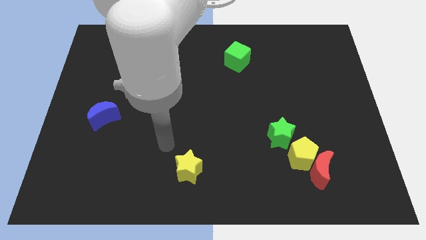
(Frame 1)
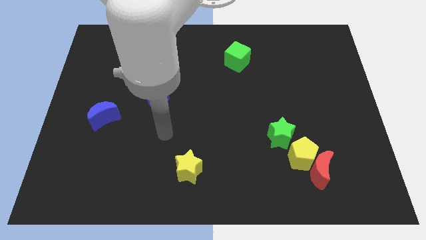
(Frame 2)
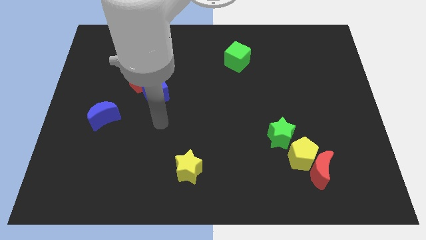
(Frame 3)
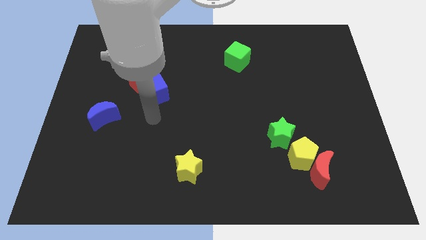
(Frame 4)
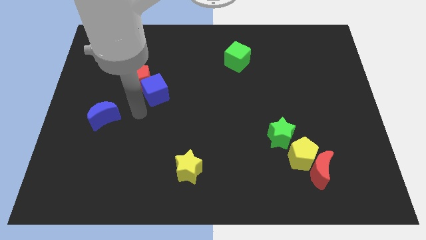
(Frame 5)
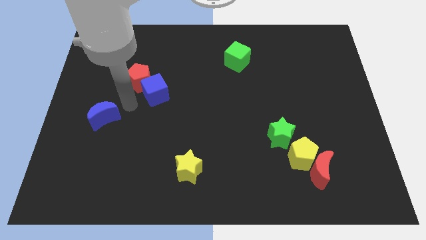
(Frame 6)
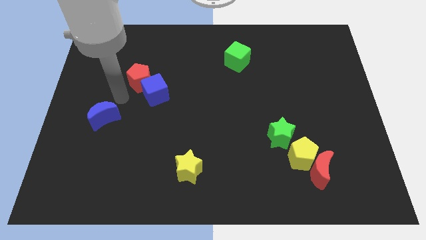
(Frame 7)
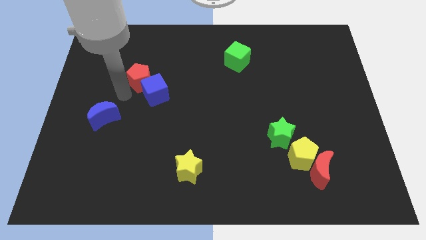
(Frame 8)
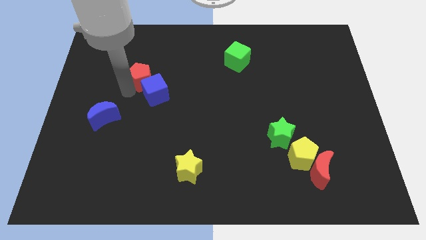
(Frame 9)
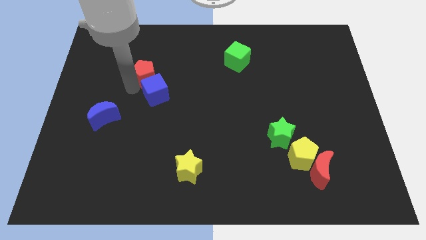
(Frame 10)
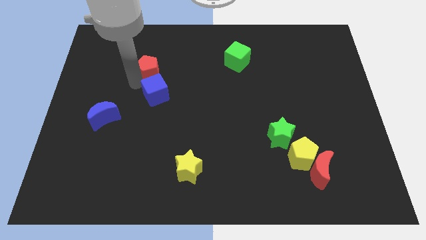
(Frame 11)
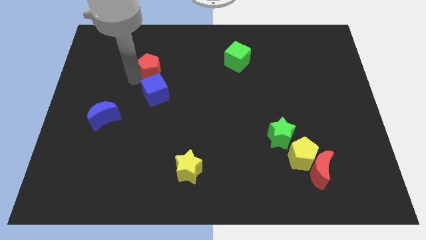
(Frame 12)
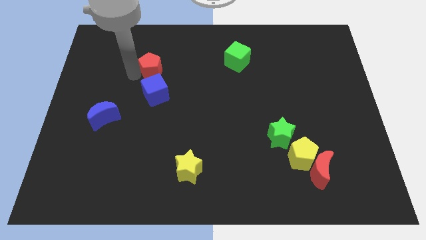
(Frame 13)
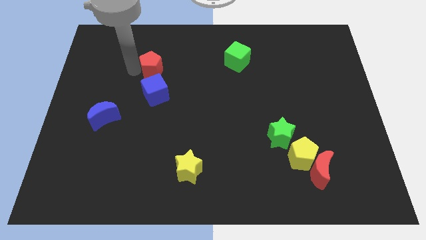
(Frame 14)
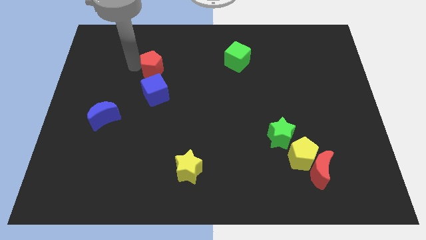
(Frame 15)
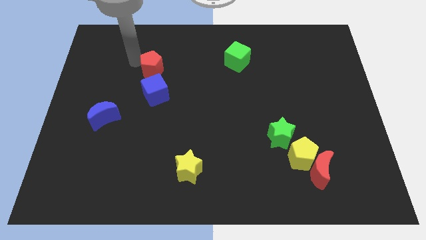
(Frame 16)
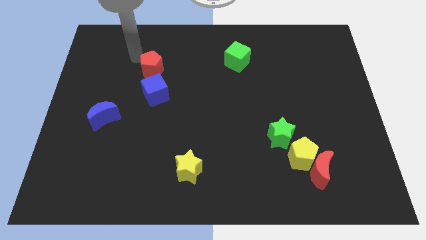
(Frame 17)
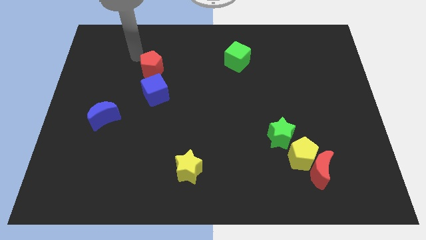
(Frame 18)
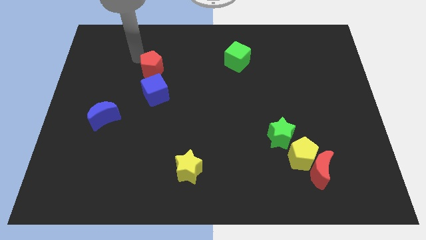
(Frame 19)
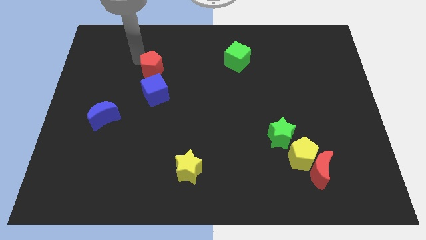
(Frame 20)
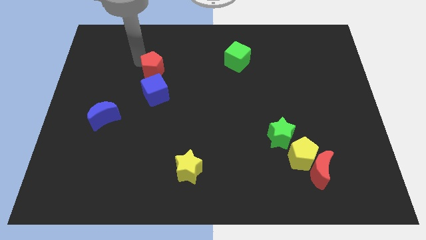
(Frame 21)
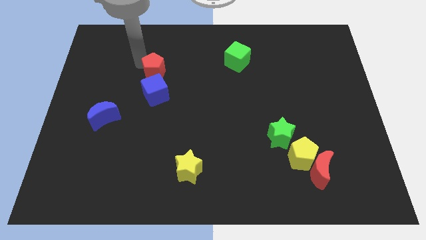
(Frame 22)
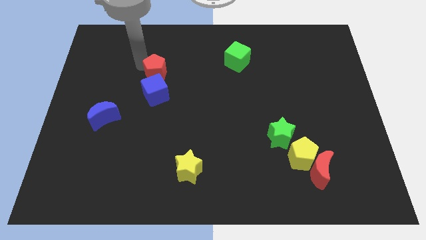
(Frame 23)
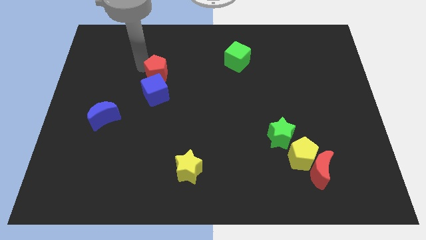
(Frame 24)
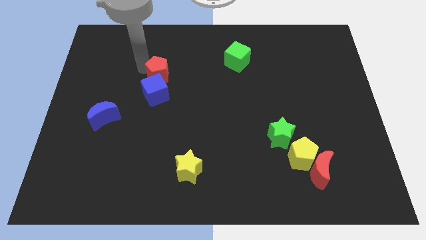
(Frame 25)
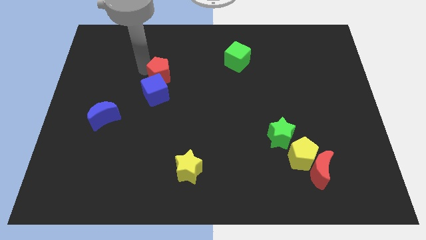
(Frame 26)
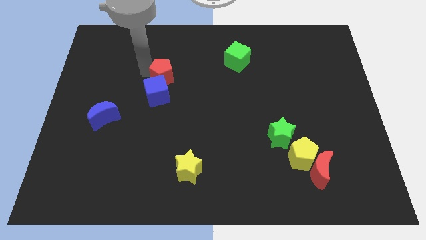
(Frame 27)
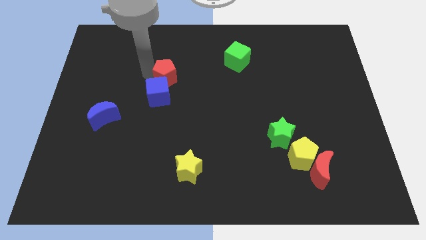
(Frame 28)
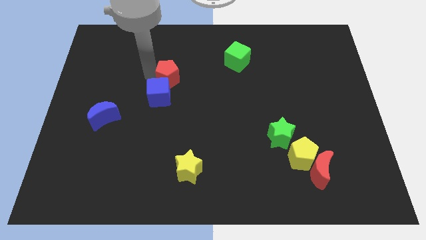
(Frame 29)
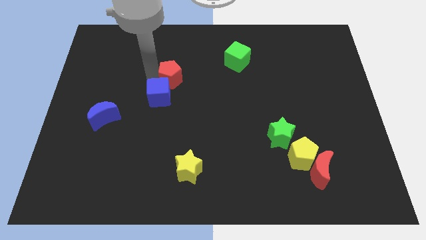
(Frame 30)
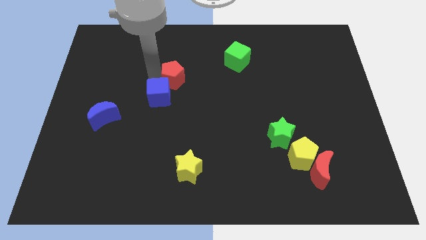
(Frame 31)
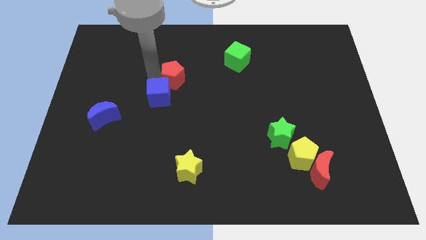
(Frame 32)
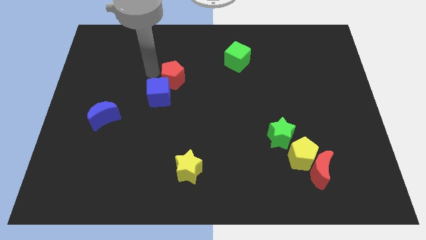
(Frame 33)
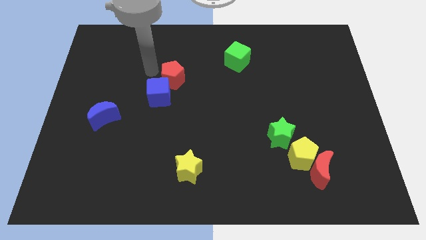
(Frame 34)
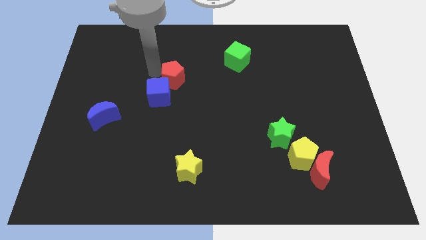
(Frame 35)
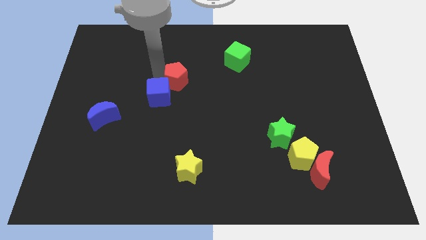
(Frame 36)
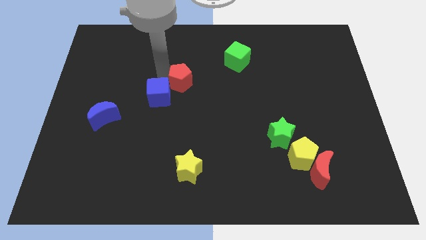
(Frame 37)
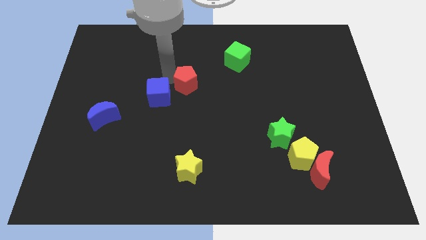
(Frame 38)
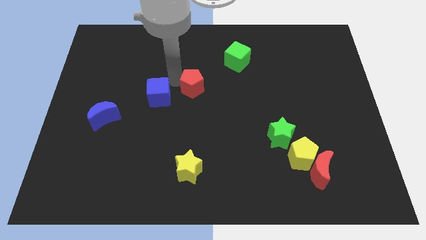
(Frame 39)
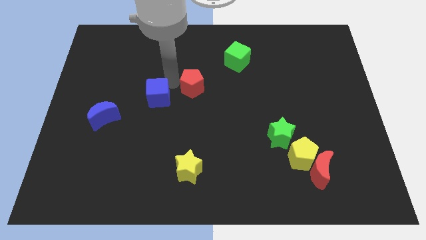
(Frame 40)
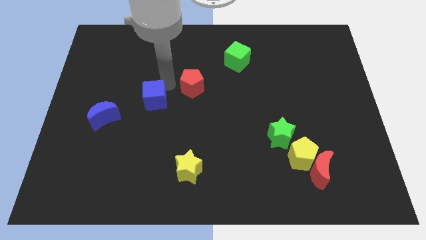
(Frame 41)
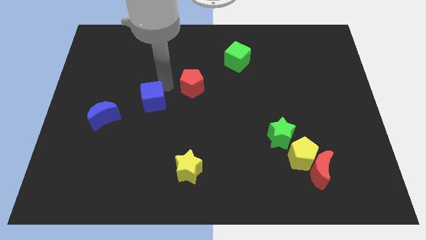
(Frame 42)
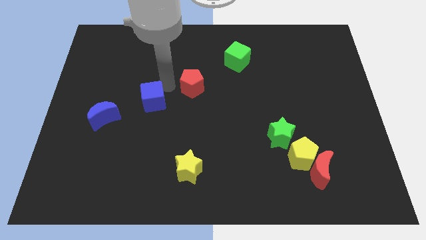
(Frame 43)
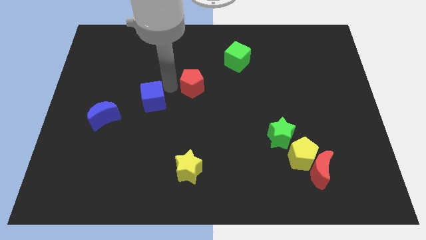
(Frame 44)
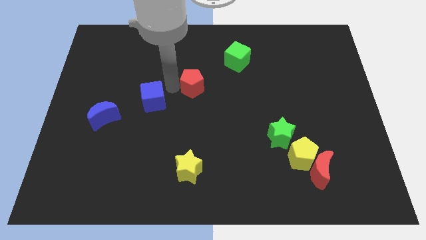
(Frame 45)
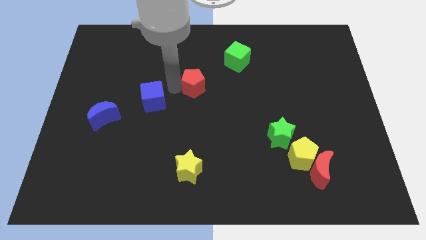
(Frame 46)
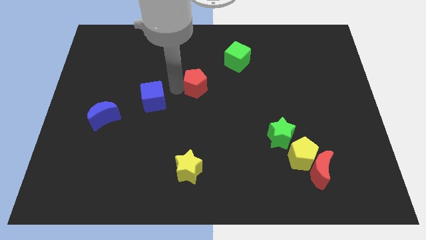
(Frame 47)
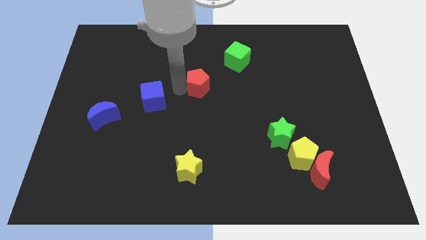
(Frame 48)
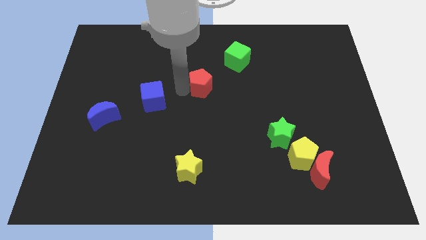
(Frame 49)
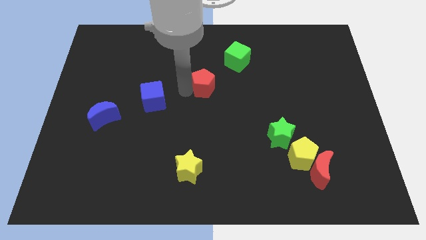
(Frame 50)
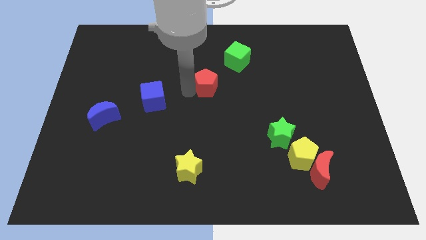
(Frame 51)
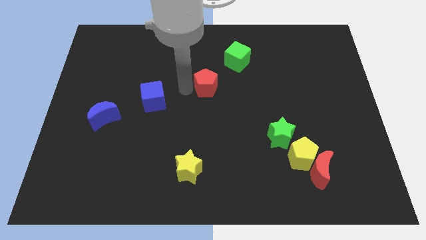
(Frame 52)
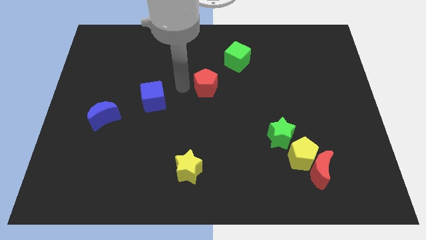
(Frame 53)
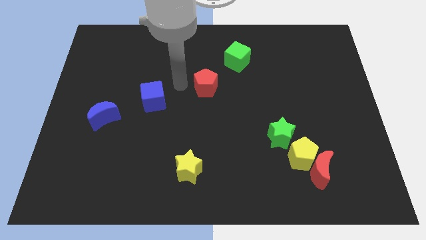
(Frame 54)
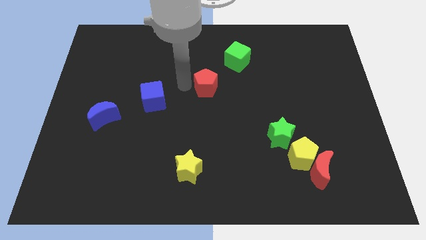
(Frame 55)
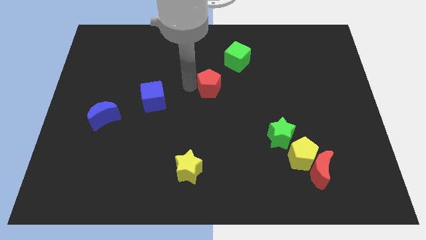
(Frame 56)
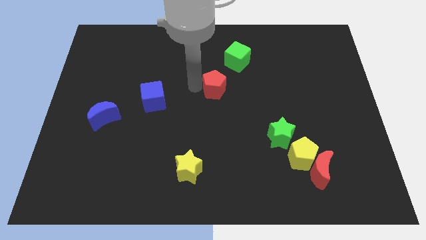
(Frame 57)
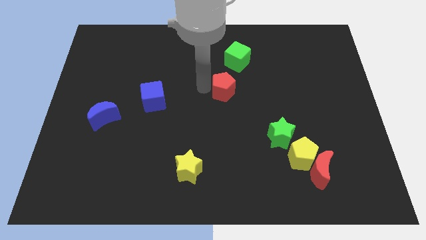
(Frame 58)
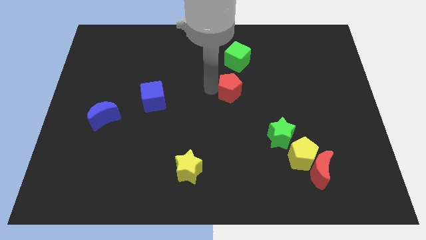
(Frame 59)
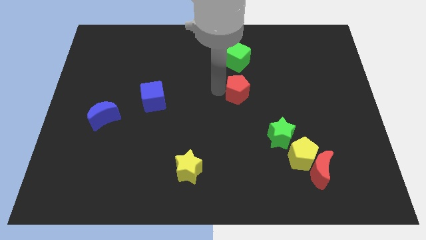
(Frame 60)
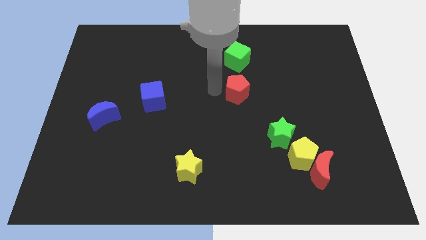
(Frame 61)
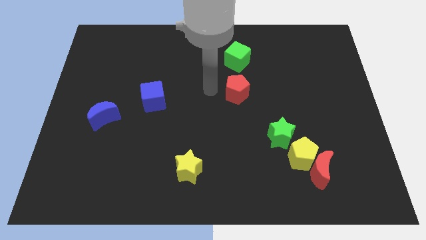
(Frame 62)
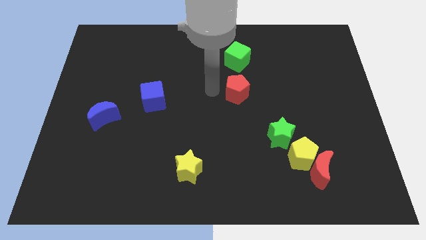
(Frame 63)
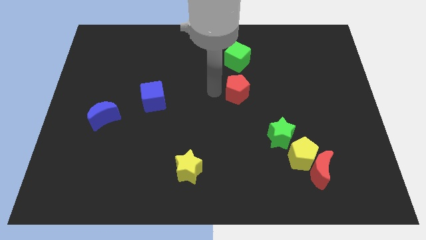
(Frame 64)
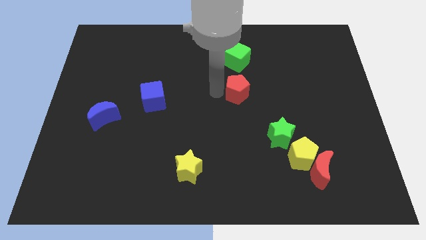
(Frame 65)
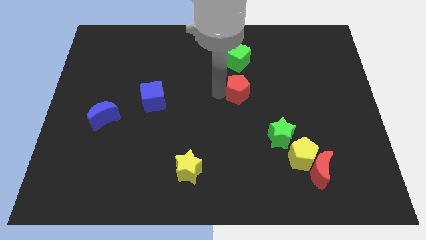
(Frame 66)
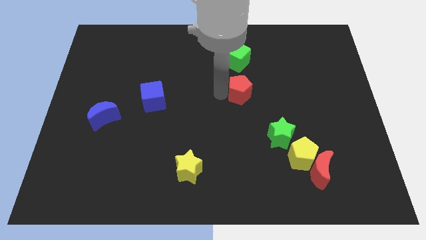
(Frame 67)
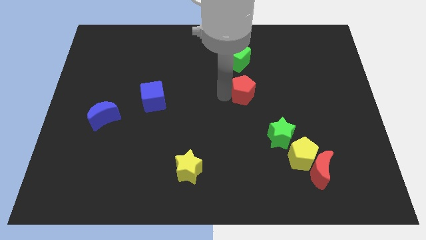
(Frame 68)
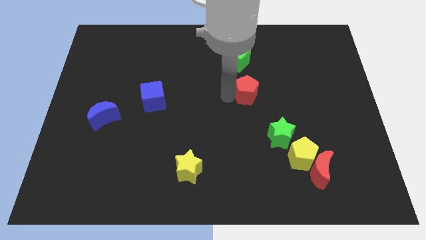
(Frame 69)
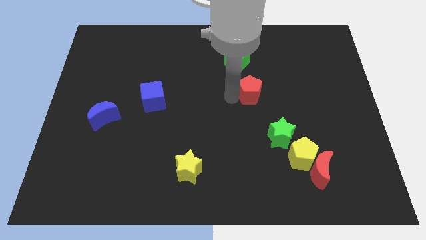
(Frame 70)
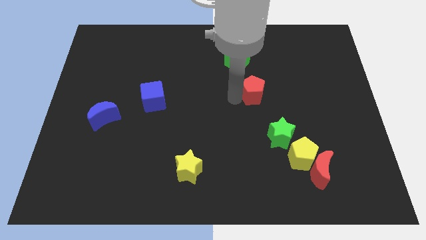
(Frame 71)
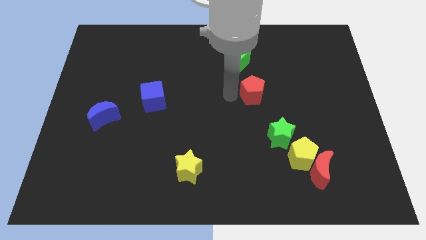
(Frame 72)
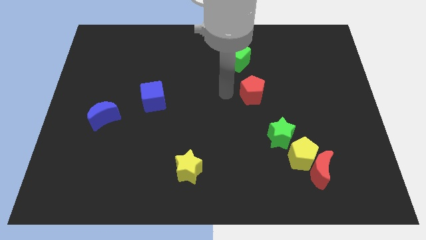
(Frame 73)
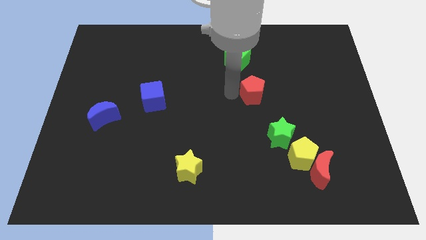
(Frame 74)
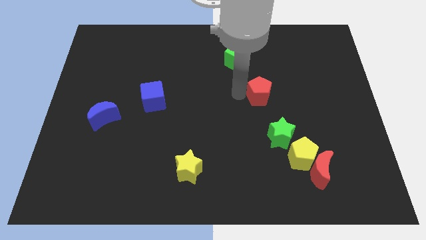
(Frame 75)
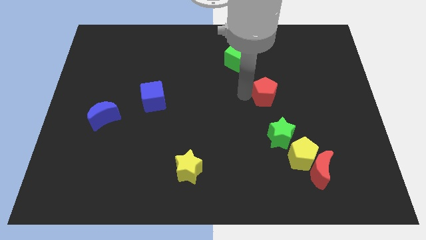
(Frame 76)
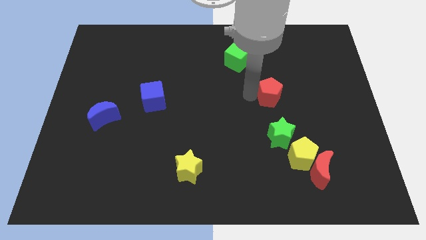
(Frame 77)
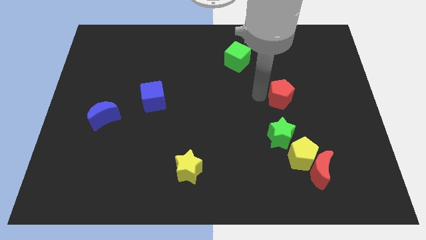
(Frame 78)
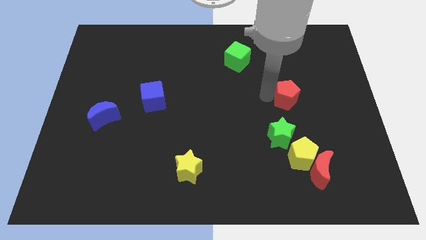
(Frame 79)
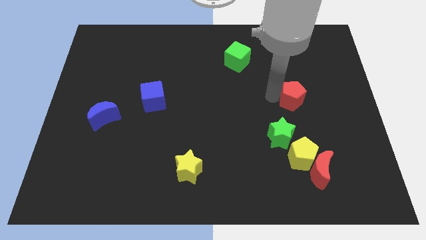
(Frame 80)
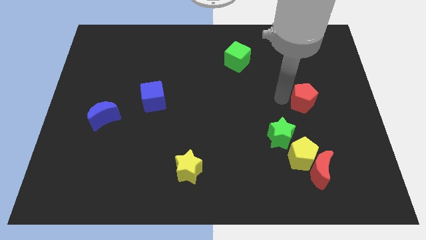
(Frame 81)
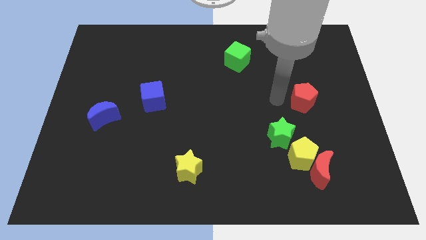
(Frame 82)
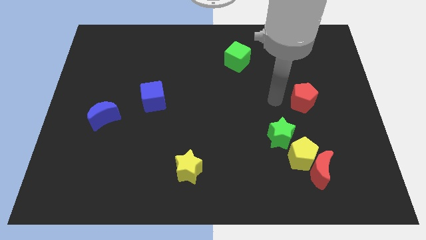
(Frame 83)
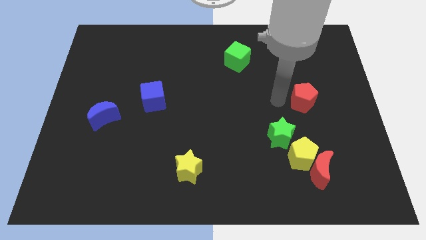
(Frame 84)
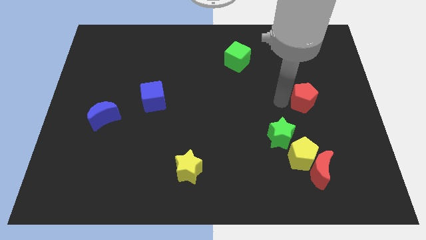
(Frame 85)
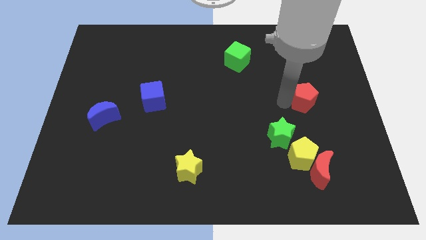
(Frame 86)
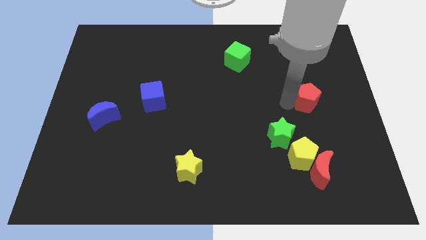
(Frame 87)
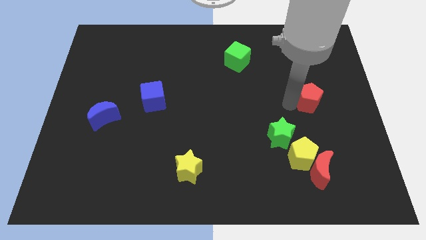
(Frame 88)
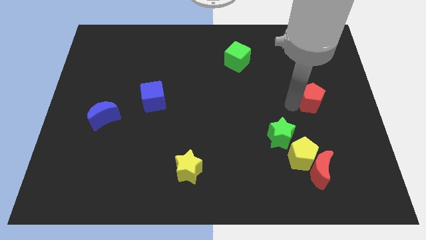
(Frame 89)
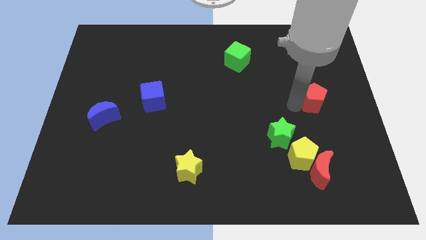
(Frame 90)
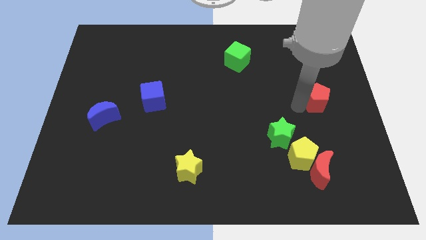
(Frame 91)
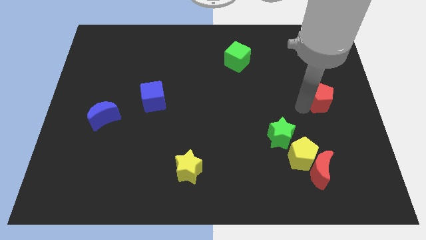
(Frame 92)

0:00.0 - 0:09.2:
move the red pentagon to the center right
